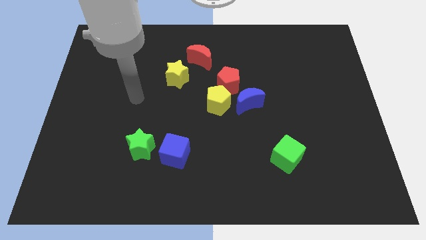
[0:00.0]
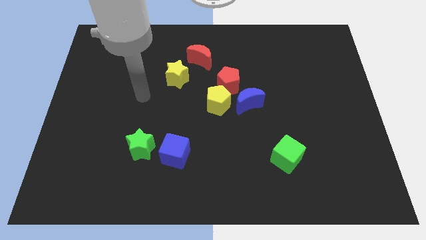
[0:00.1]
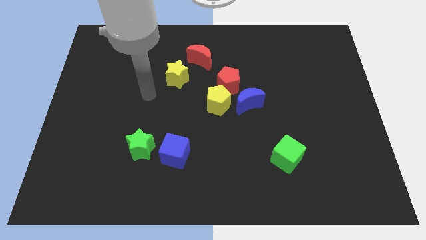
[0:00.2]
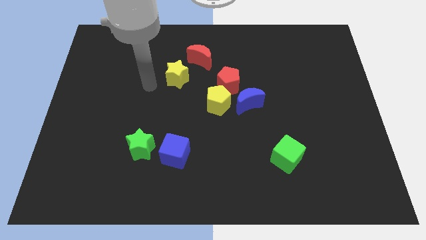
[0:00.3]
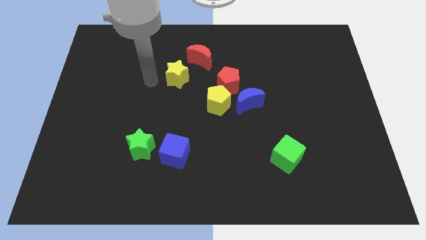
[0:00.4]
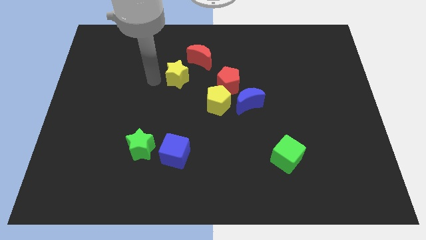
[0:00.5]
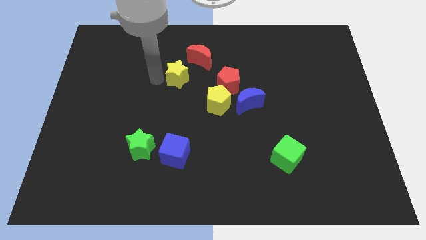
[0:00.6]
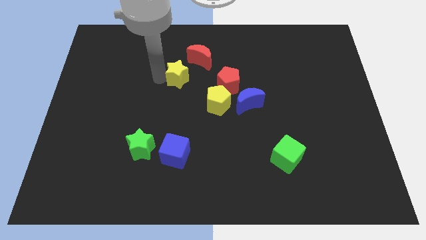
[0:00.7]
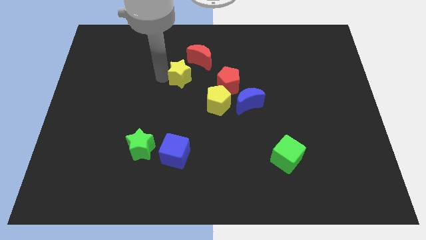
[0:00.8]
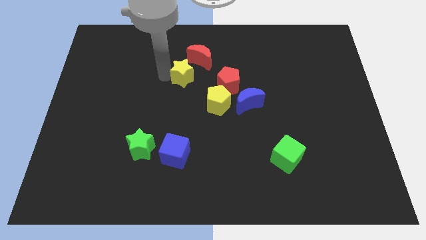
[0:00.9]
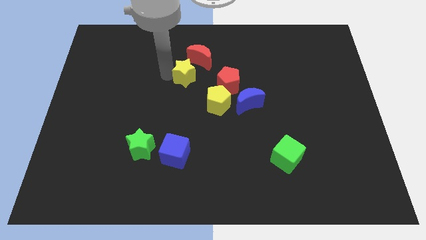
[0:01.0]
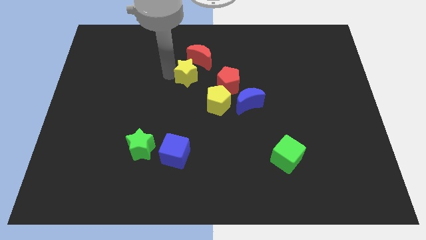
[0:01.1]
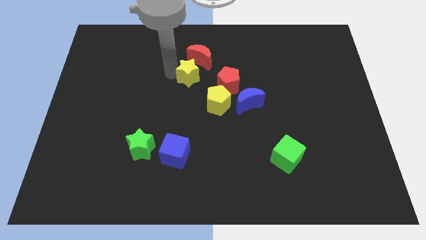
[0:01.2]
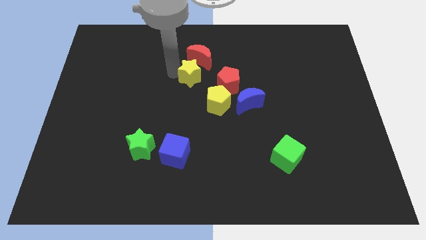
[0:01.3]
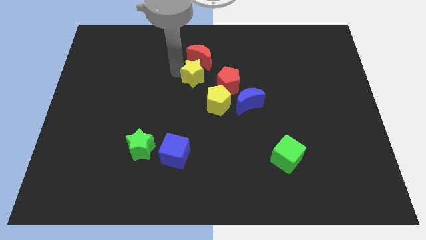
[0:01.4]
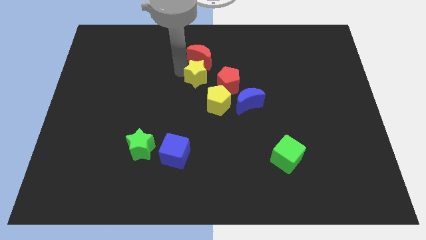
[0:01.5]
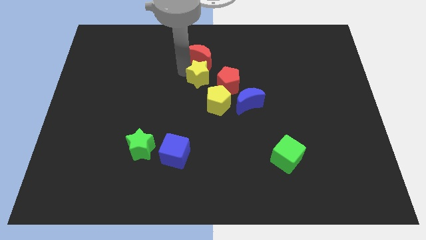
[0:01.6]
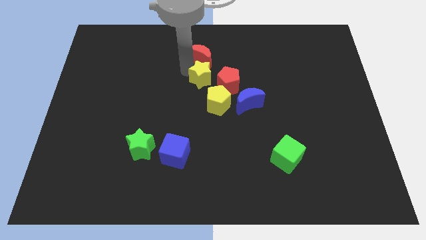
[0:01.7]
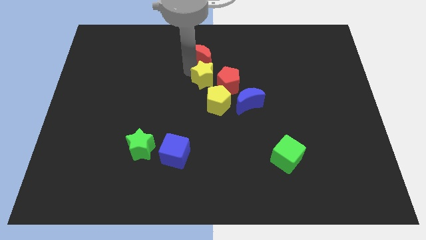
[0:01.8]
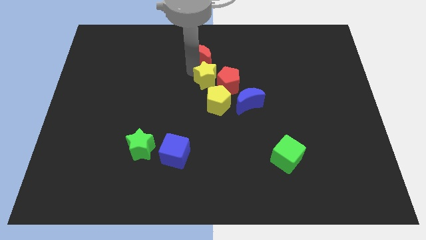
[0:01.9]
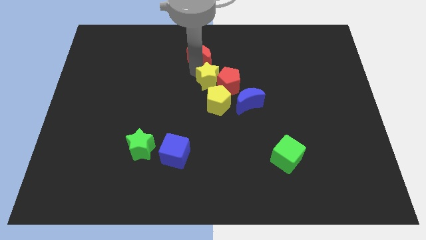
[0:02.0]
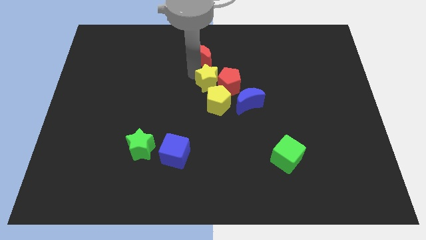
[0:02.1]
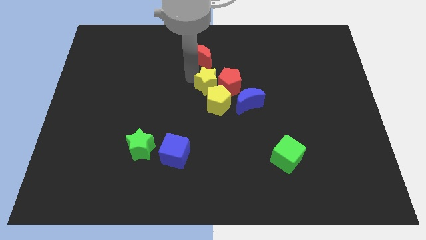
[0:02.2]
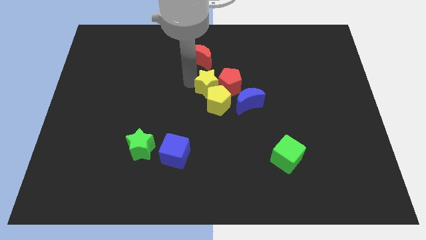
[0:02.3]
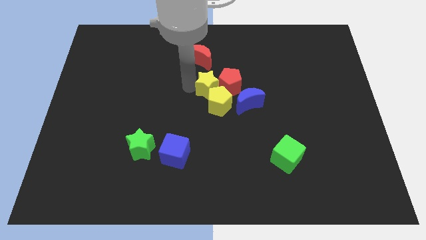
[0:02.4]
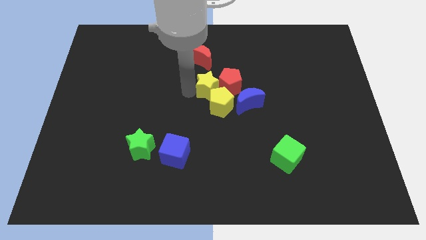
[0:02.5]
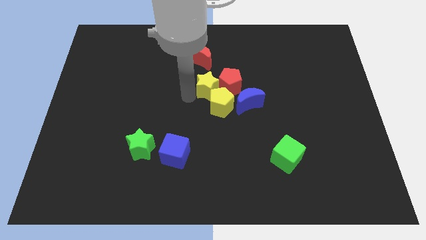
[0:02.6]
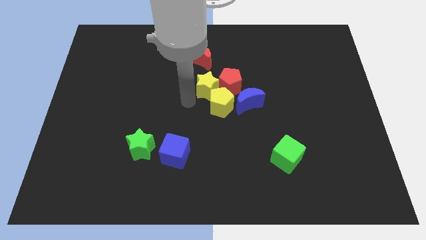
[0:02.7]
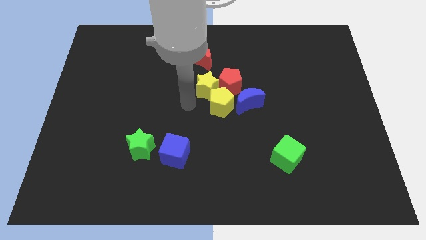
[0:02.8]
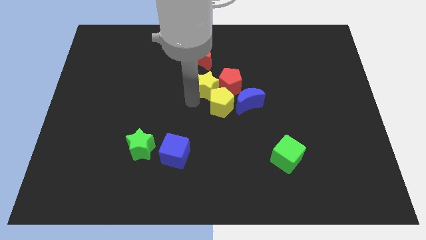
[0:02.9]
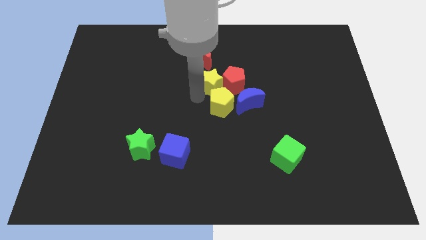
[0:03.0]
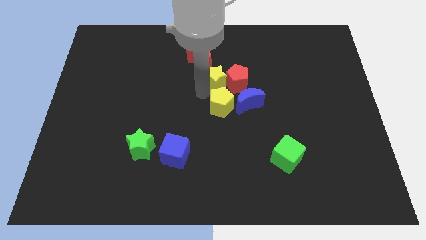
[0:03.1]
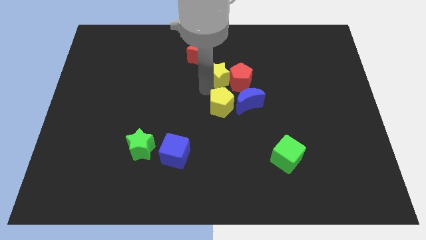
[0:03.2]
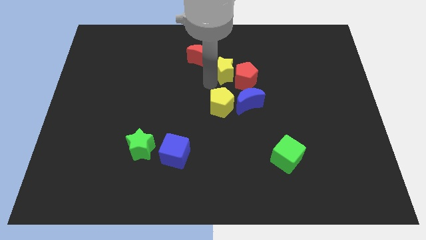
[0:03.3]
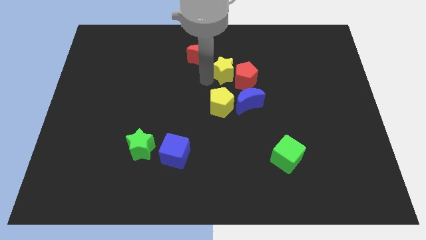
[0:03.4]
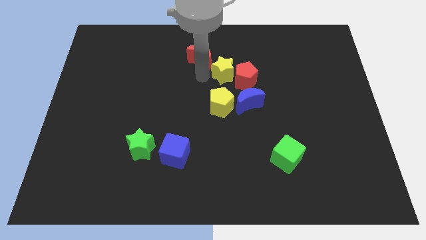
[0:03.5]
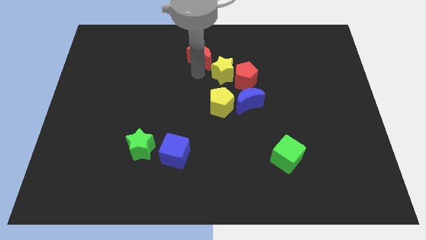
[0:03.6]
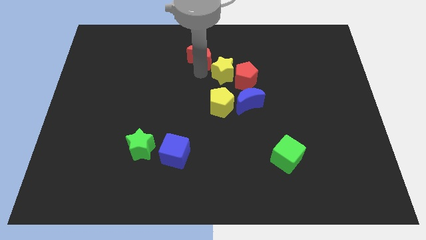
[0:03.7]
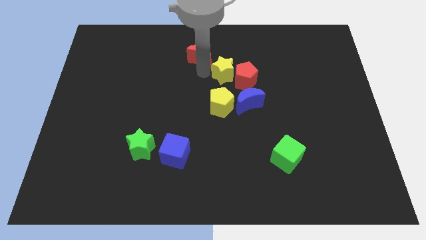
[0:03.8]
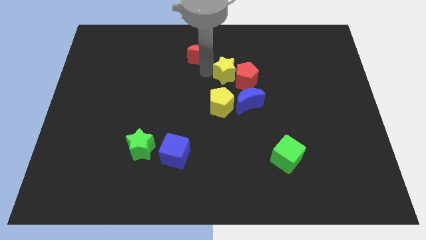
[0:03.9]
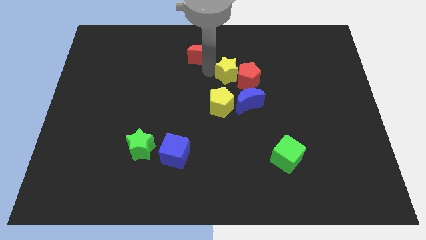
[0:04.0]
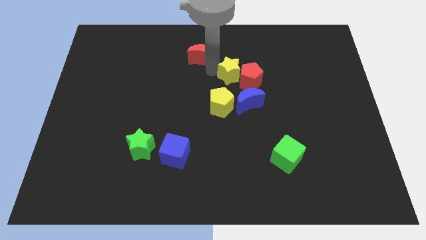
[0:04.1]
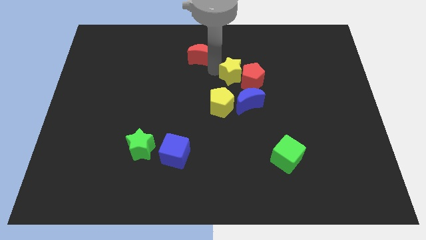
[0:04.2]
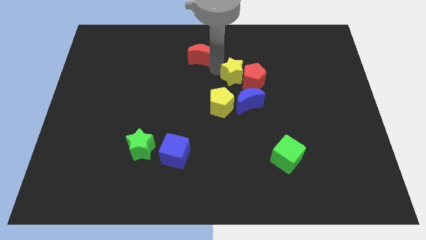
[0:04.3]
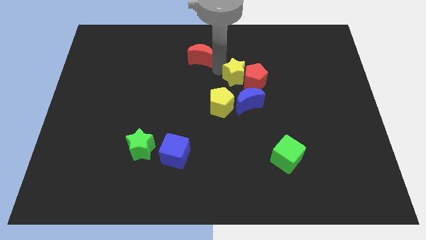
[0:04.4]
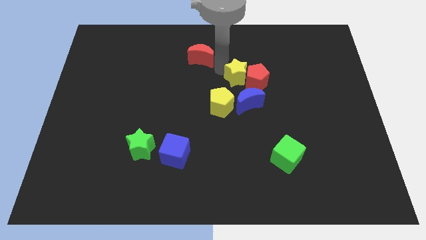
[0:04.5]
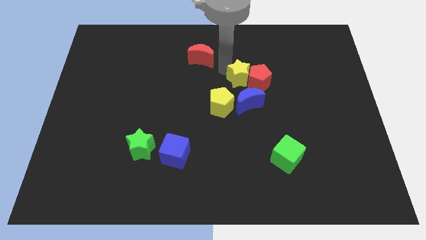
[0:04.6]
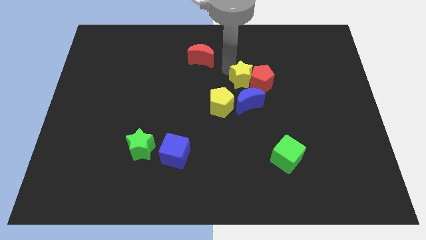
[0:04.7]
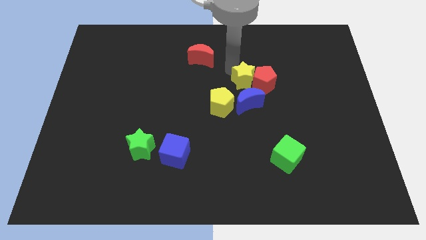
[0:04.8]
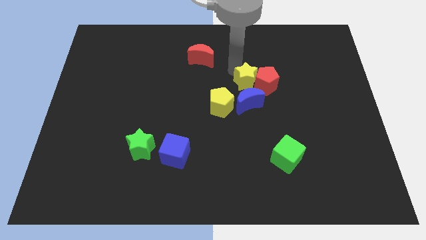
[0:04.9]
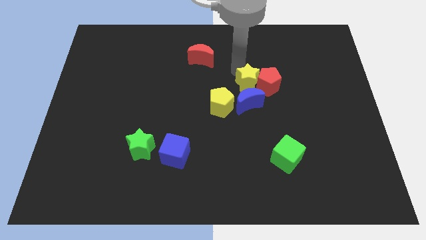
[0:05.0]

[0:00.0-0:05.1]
put the yellow star to the top right of the blue moon

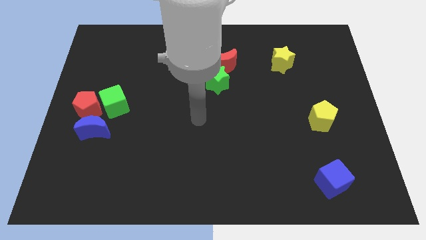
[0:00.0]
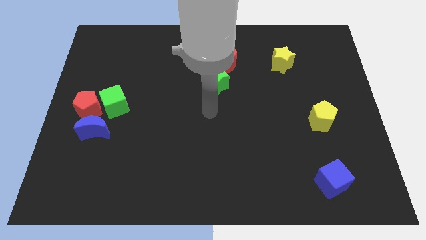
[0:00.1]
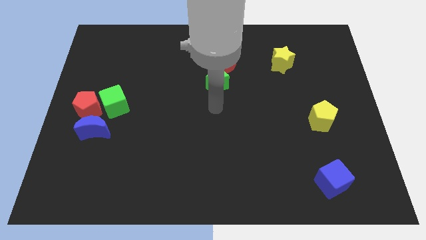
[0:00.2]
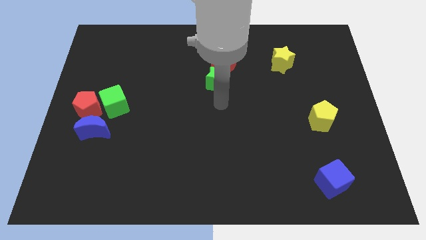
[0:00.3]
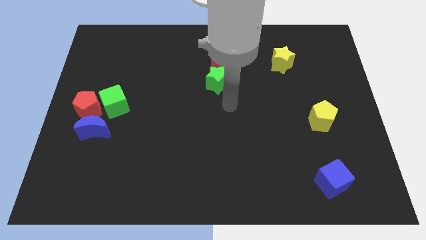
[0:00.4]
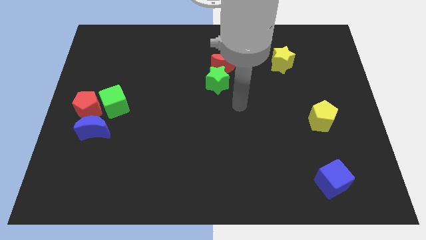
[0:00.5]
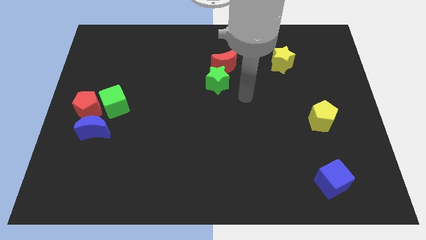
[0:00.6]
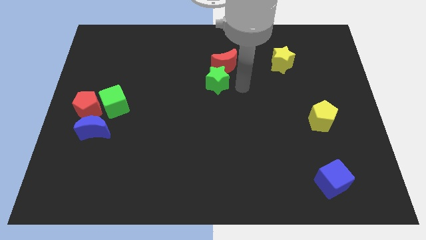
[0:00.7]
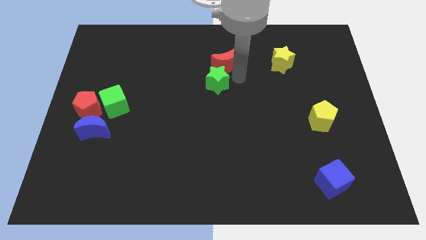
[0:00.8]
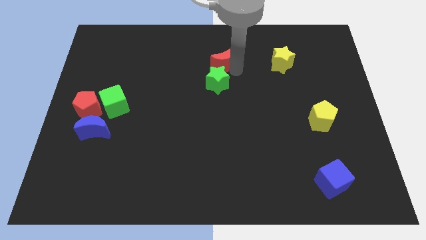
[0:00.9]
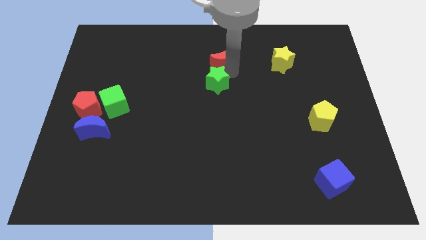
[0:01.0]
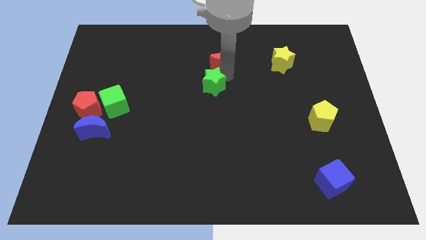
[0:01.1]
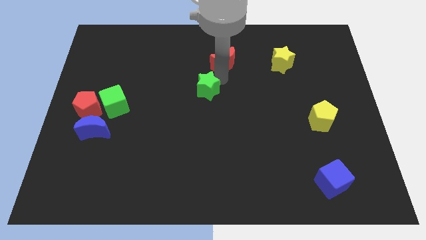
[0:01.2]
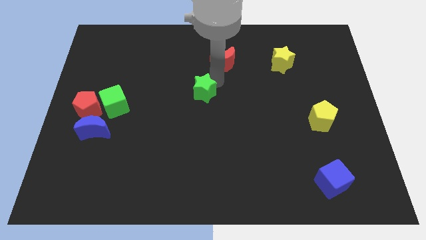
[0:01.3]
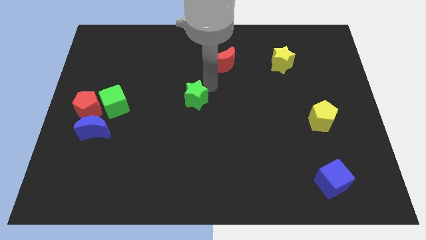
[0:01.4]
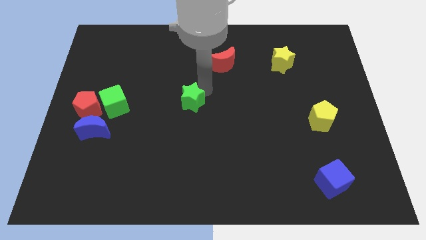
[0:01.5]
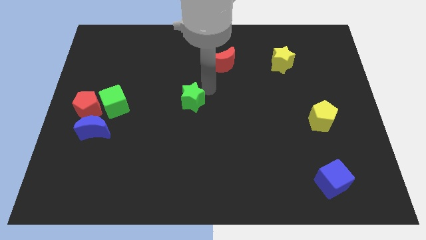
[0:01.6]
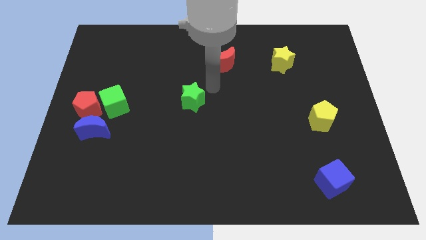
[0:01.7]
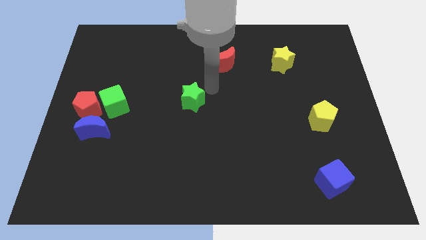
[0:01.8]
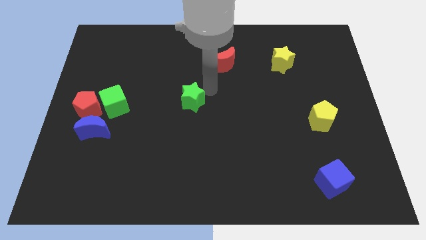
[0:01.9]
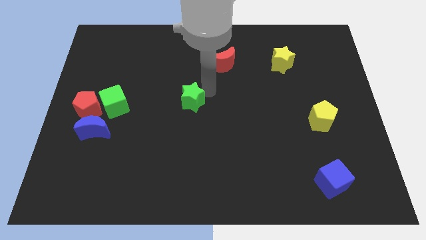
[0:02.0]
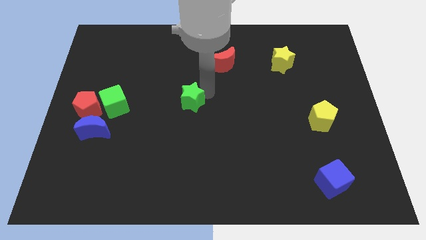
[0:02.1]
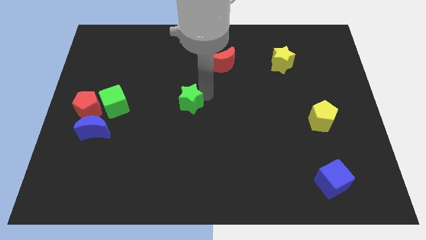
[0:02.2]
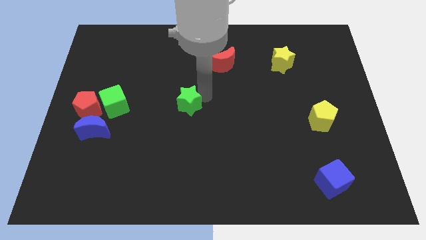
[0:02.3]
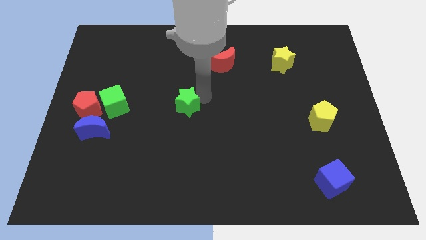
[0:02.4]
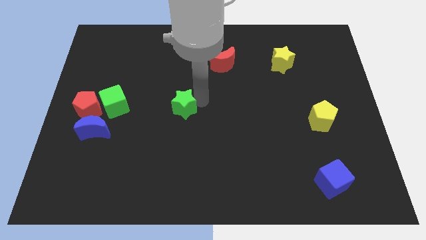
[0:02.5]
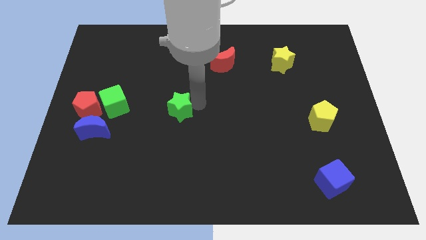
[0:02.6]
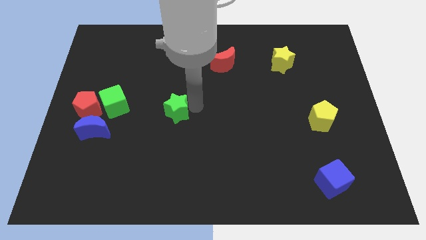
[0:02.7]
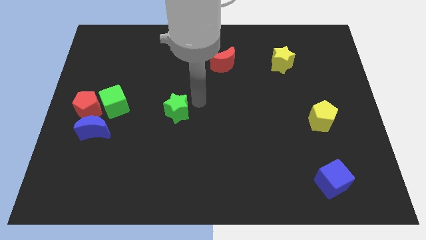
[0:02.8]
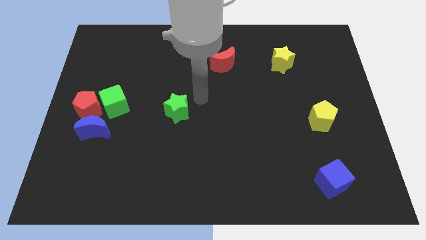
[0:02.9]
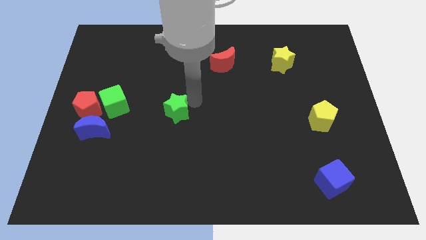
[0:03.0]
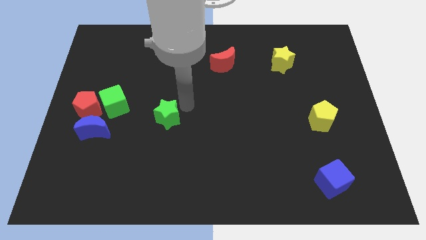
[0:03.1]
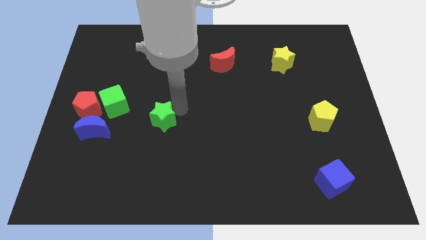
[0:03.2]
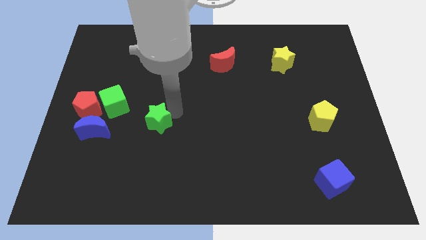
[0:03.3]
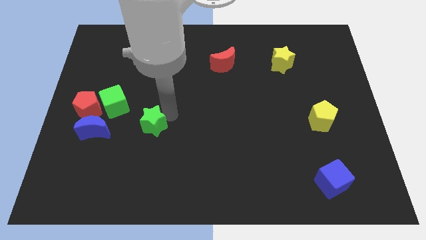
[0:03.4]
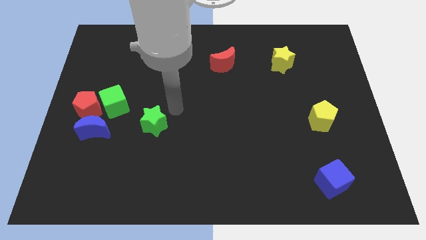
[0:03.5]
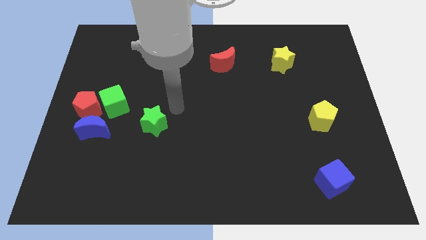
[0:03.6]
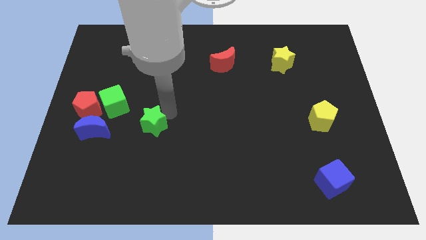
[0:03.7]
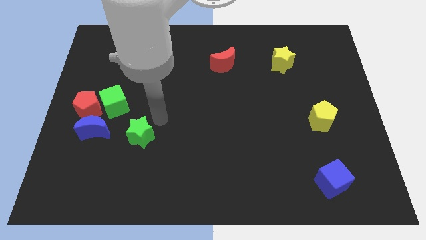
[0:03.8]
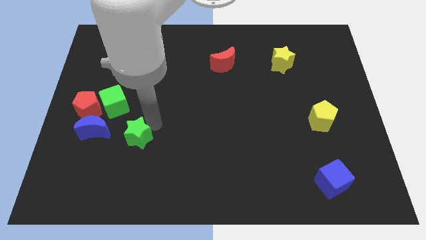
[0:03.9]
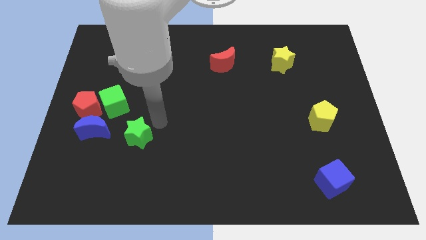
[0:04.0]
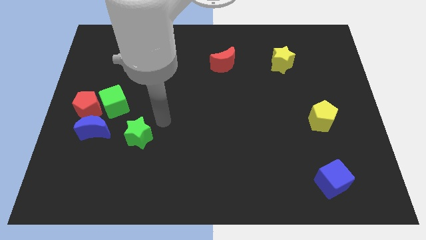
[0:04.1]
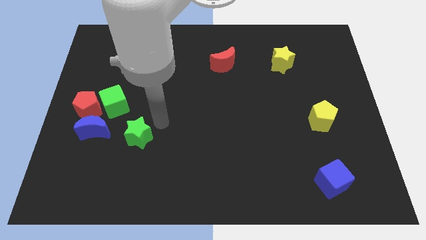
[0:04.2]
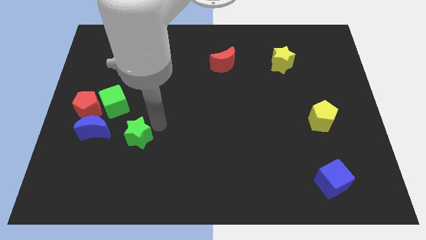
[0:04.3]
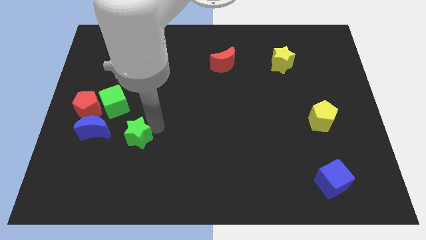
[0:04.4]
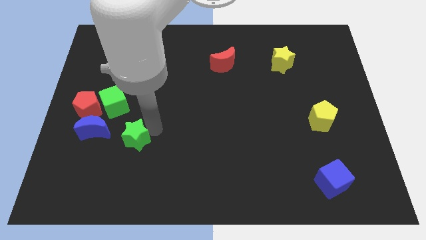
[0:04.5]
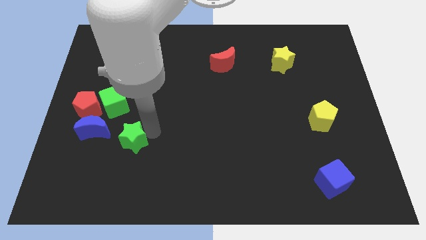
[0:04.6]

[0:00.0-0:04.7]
slide the green star to the bottom right side of the blue moon
